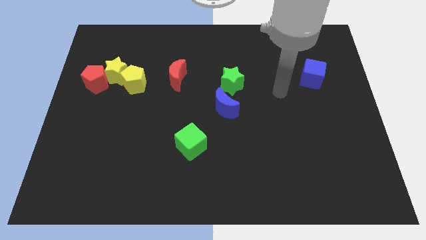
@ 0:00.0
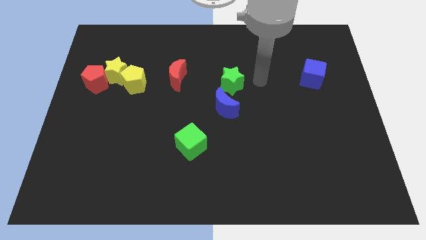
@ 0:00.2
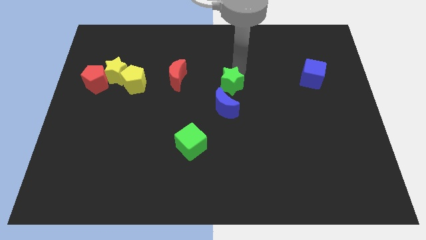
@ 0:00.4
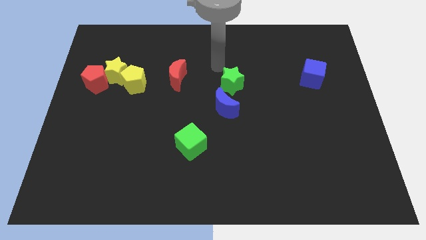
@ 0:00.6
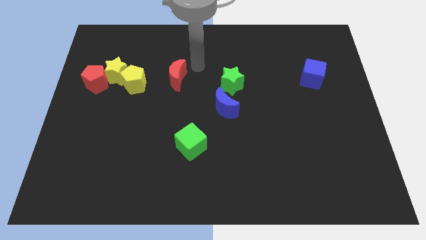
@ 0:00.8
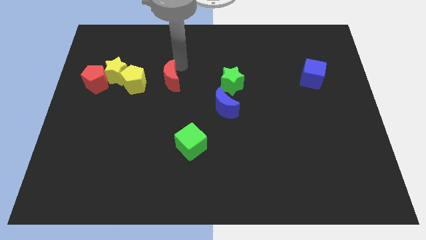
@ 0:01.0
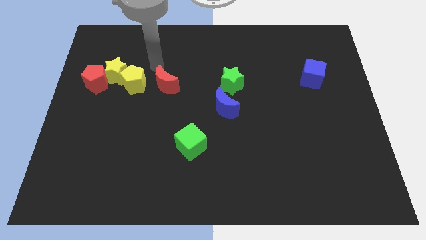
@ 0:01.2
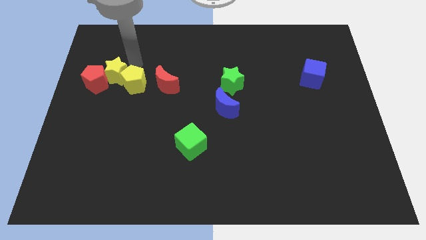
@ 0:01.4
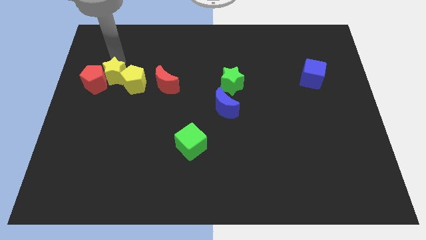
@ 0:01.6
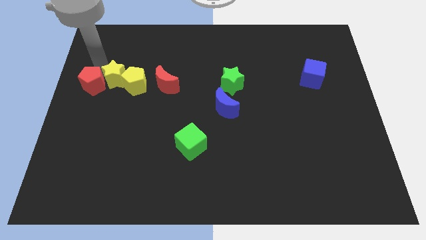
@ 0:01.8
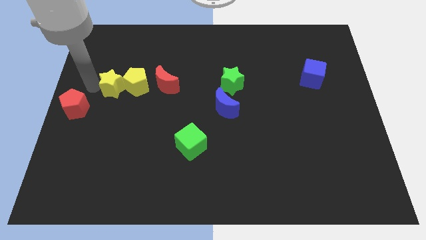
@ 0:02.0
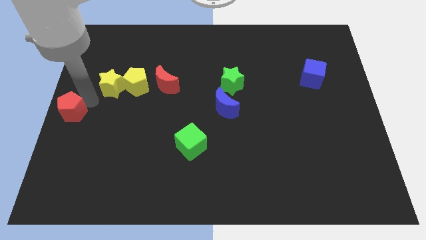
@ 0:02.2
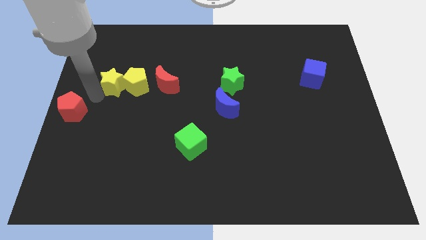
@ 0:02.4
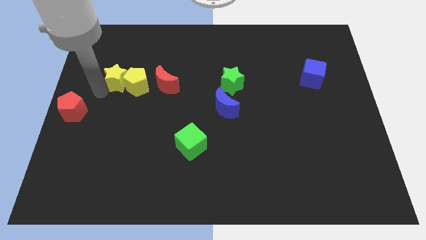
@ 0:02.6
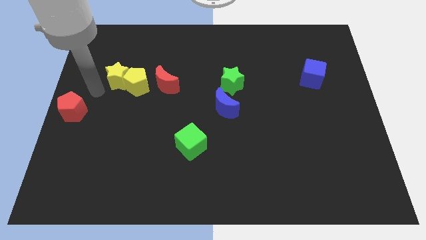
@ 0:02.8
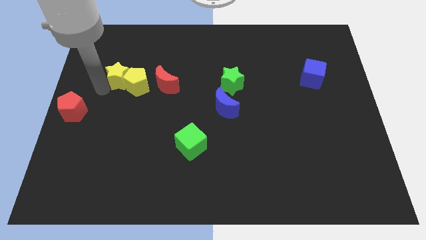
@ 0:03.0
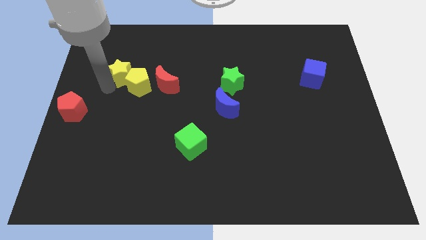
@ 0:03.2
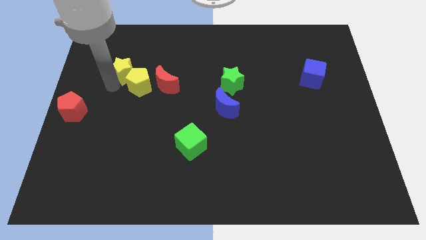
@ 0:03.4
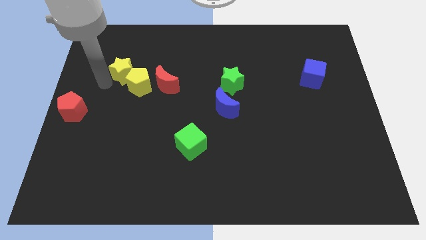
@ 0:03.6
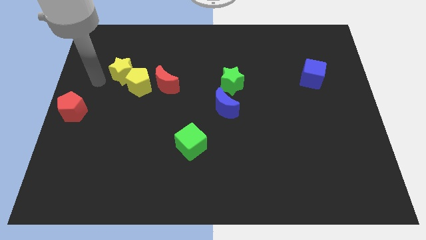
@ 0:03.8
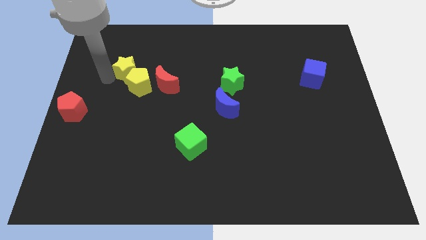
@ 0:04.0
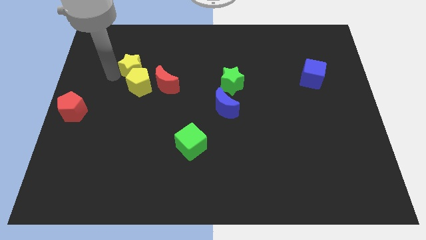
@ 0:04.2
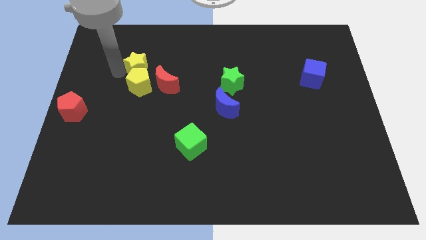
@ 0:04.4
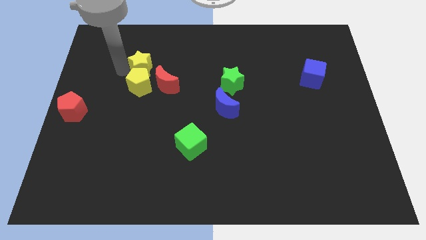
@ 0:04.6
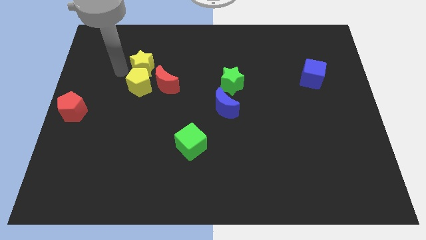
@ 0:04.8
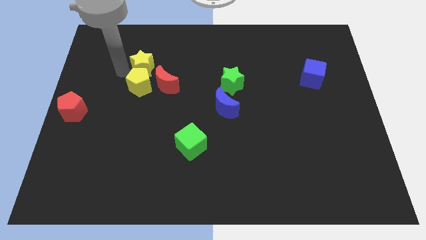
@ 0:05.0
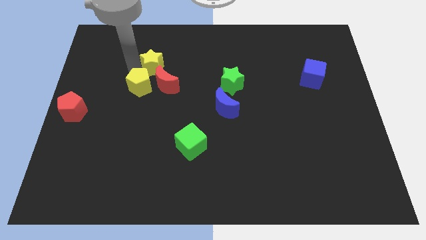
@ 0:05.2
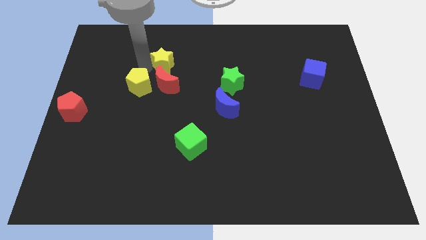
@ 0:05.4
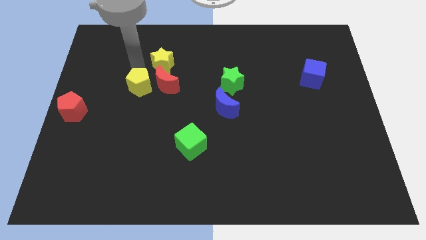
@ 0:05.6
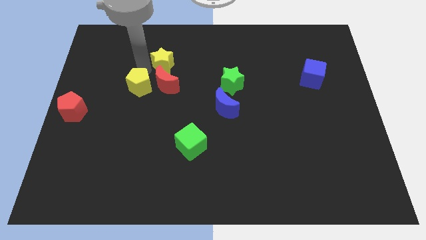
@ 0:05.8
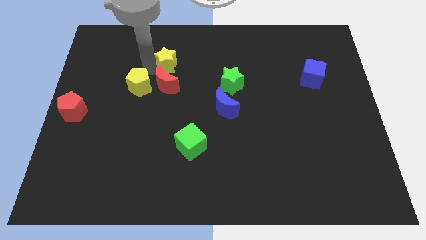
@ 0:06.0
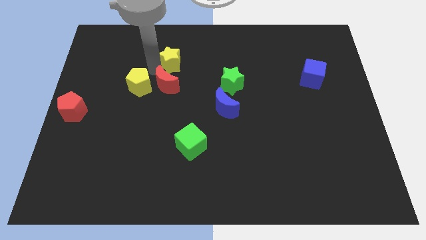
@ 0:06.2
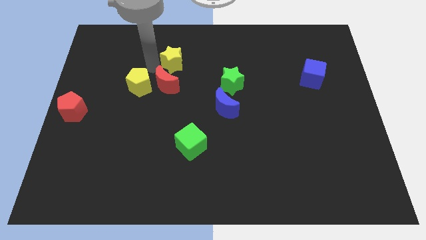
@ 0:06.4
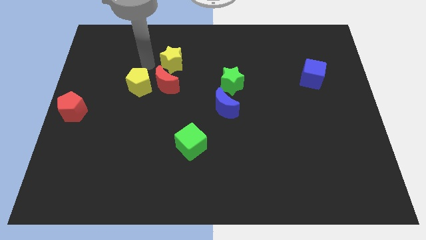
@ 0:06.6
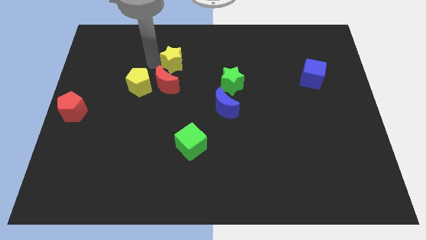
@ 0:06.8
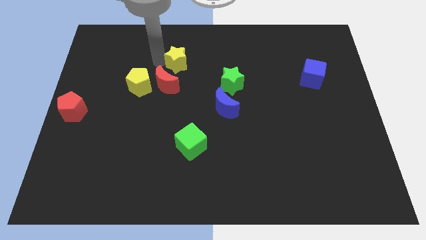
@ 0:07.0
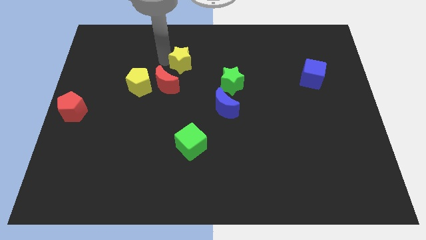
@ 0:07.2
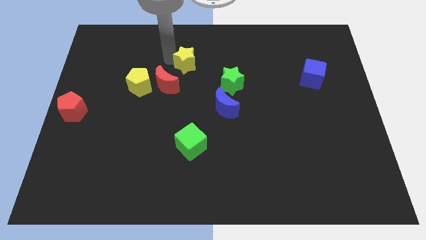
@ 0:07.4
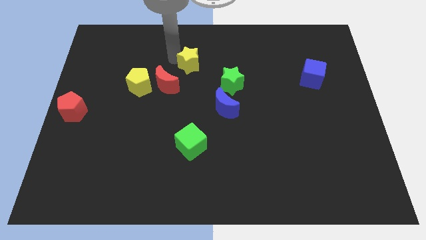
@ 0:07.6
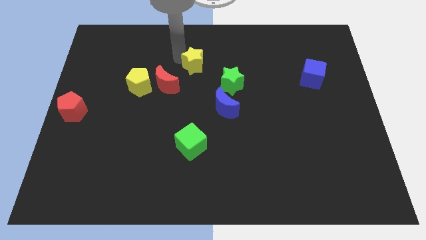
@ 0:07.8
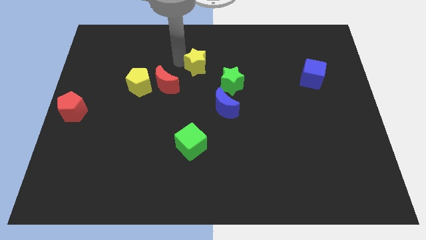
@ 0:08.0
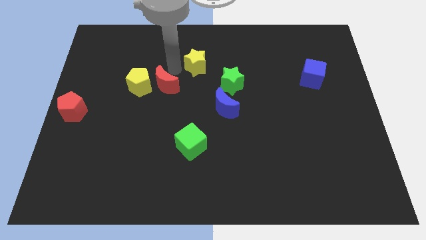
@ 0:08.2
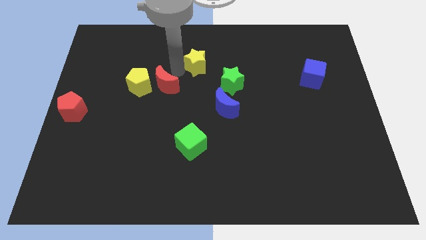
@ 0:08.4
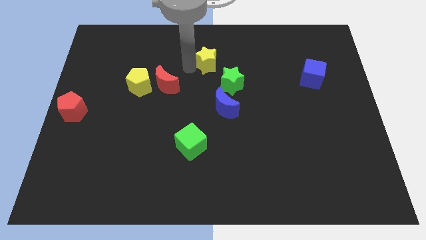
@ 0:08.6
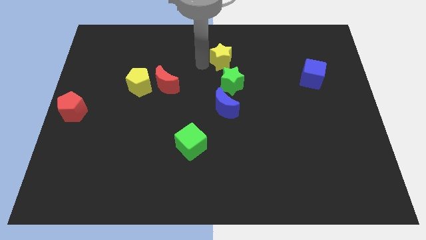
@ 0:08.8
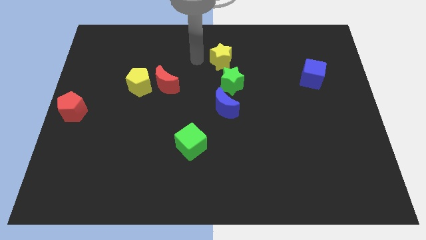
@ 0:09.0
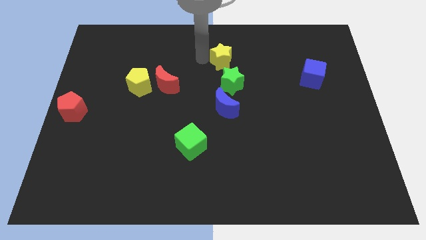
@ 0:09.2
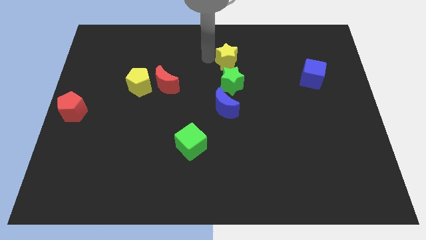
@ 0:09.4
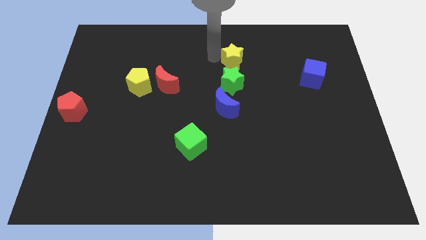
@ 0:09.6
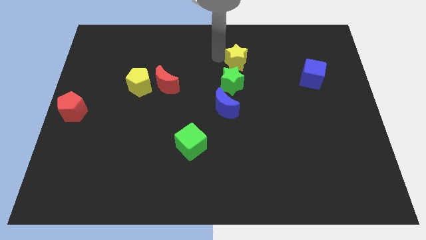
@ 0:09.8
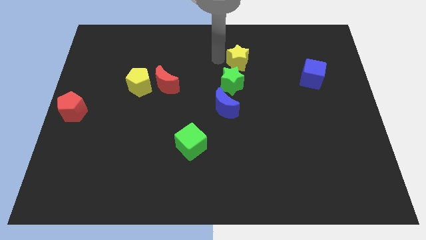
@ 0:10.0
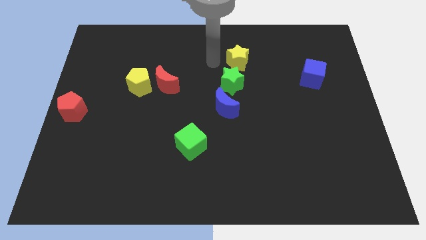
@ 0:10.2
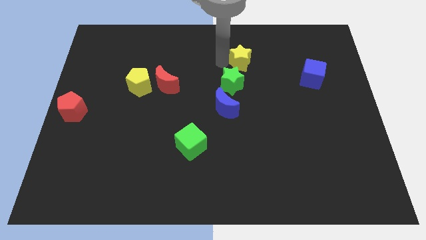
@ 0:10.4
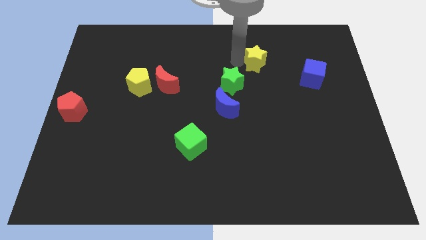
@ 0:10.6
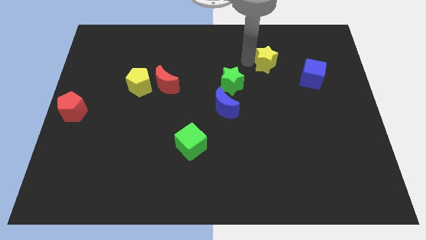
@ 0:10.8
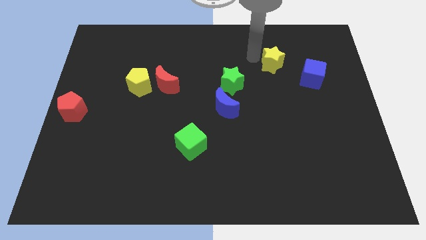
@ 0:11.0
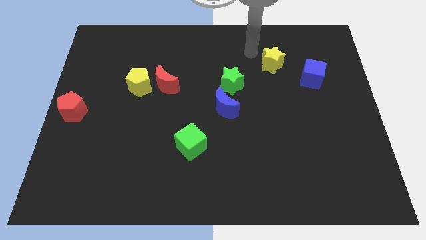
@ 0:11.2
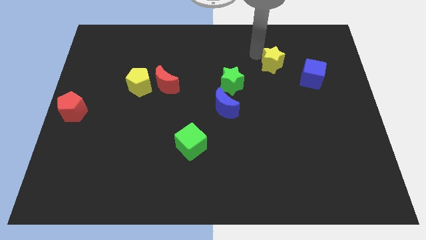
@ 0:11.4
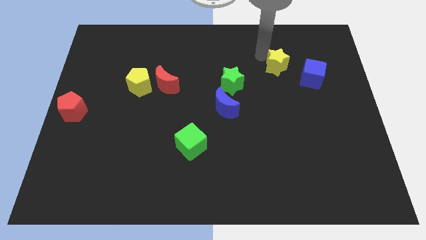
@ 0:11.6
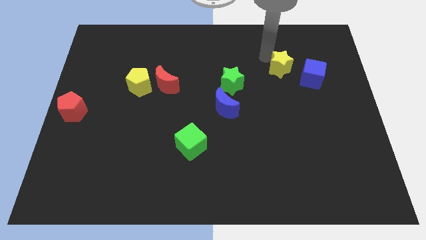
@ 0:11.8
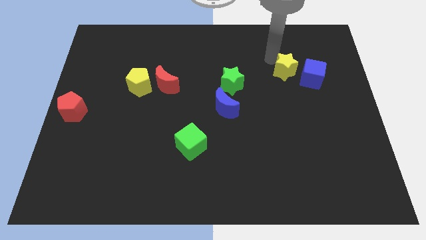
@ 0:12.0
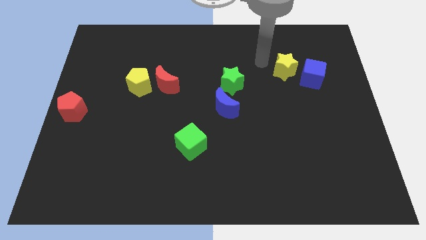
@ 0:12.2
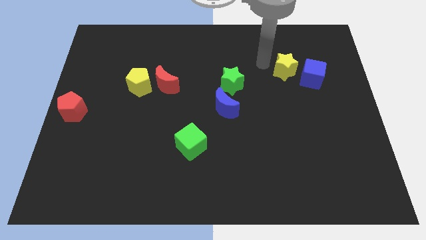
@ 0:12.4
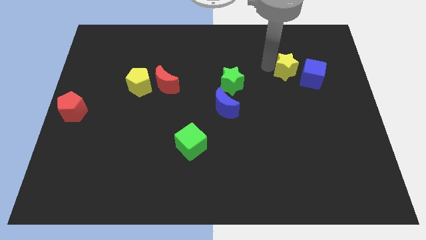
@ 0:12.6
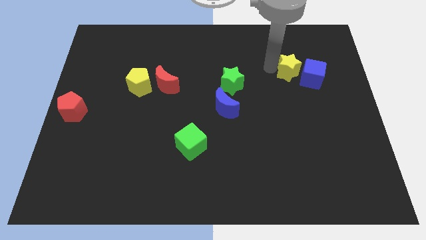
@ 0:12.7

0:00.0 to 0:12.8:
push the yellow star to the blue cube

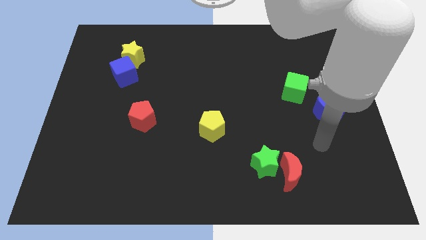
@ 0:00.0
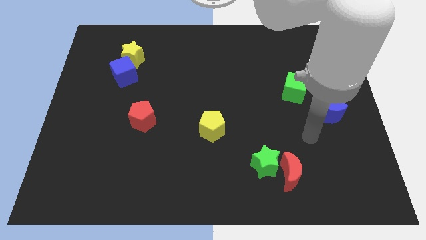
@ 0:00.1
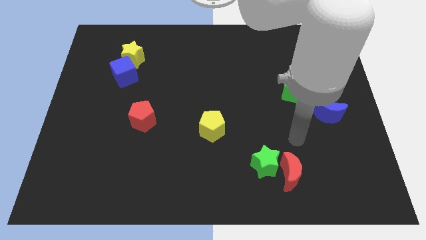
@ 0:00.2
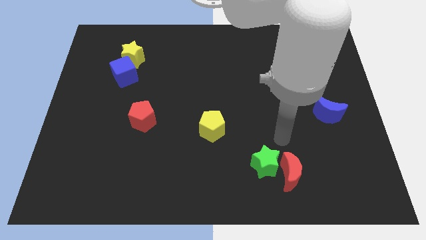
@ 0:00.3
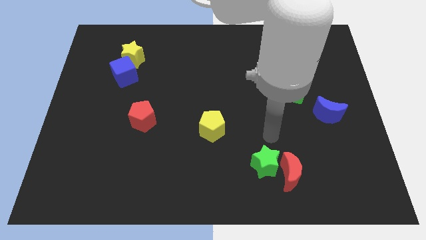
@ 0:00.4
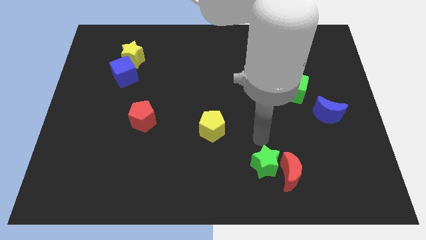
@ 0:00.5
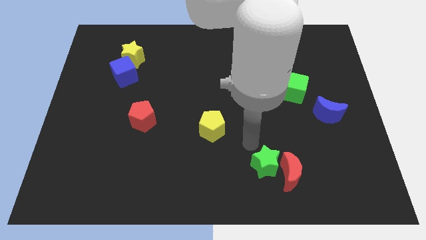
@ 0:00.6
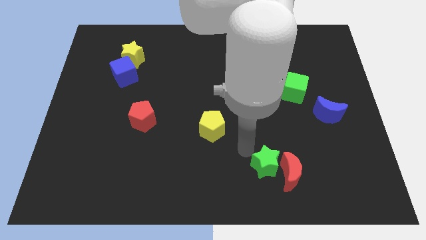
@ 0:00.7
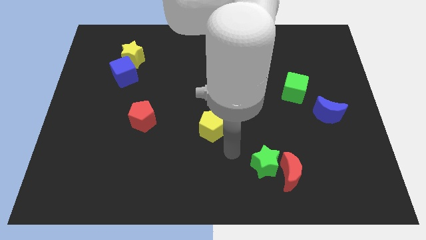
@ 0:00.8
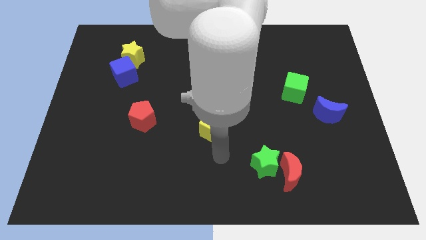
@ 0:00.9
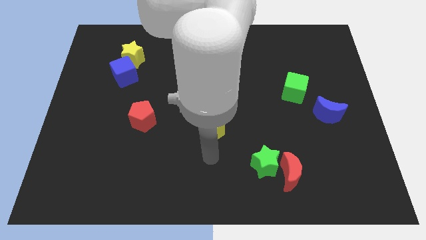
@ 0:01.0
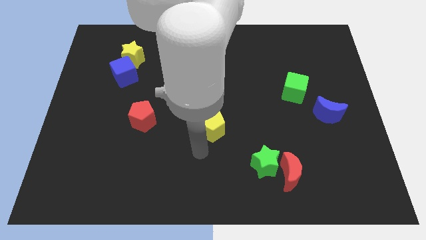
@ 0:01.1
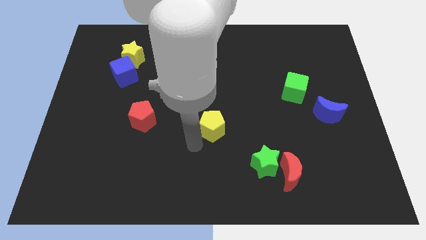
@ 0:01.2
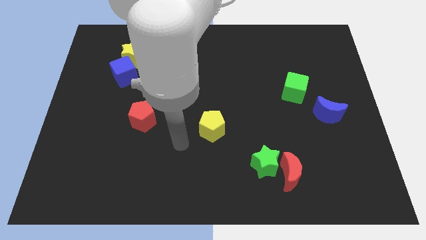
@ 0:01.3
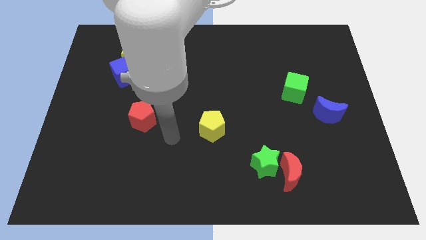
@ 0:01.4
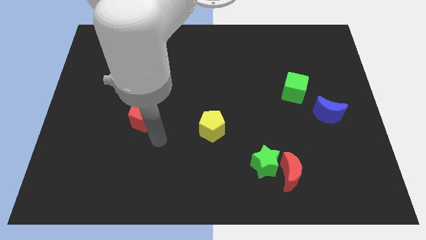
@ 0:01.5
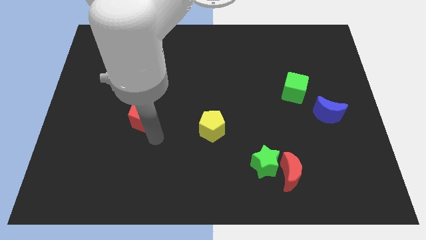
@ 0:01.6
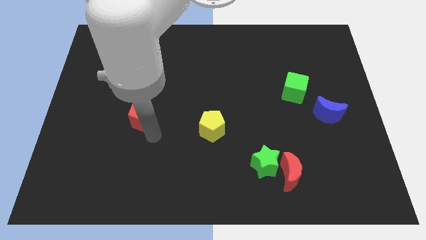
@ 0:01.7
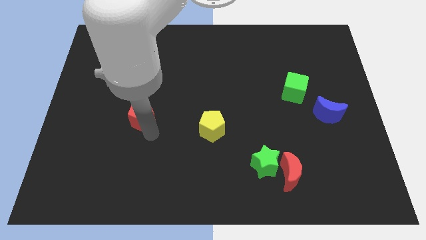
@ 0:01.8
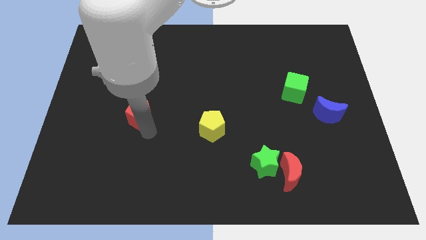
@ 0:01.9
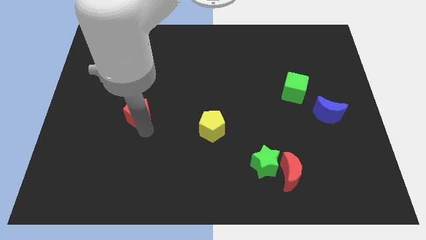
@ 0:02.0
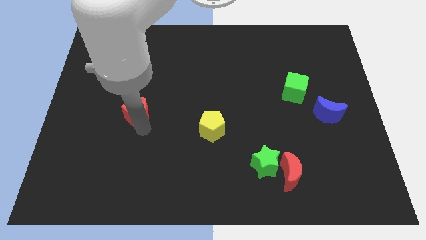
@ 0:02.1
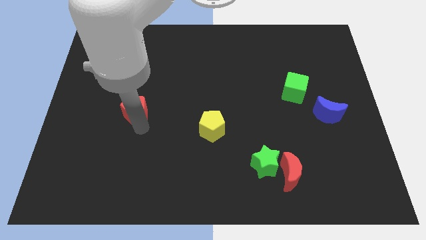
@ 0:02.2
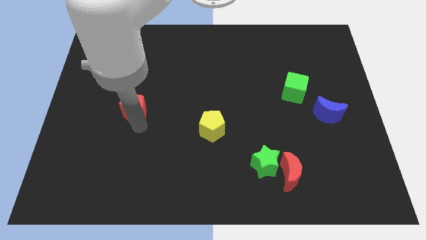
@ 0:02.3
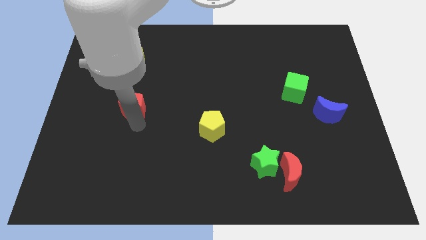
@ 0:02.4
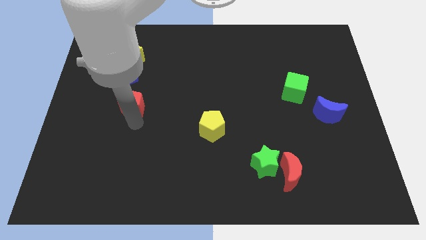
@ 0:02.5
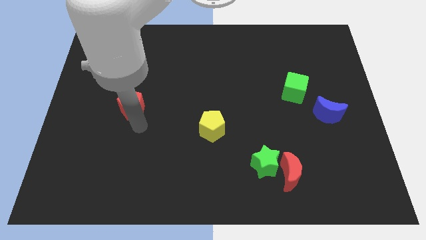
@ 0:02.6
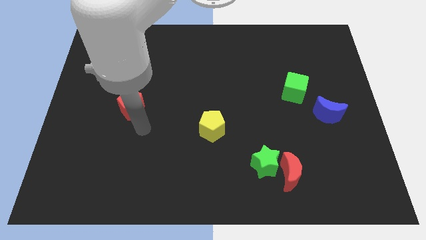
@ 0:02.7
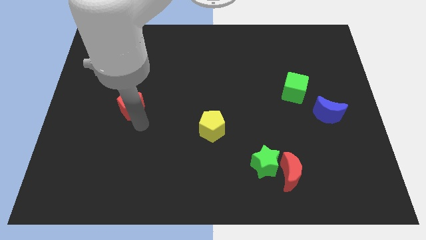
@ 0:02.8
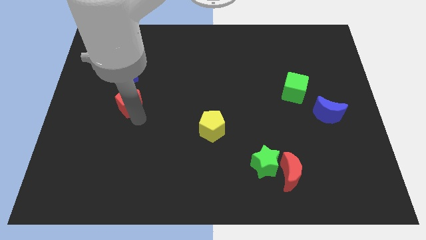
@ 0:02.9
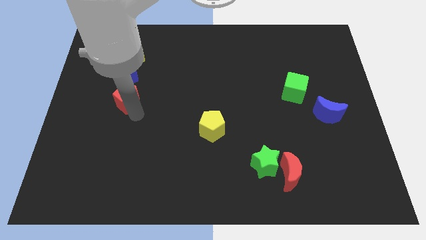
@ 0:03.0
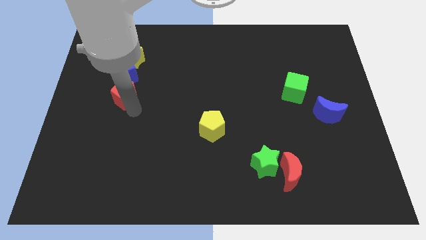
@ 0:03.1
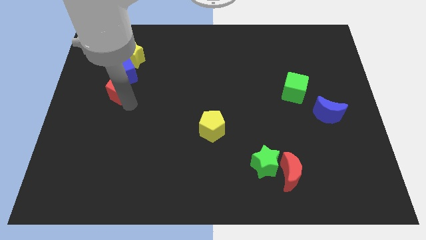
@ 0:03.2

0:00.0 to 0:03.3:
move the red pentagon towards the blue cube
